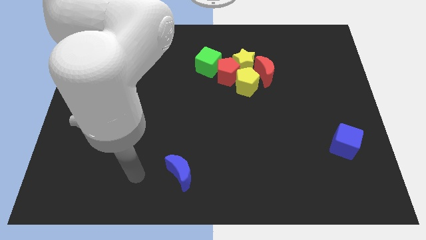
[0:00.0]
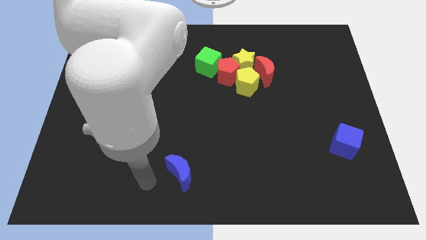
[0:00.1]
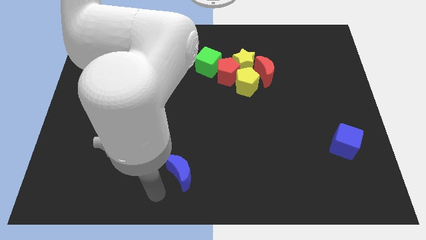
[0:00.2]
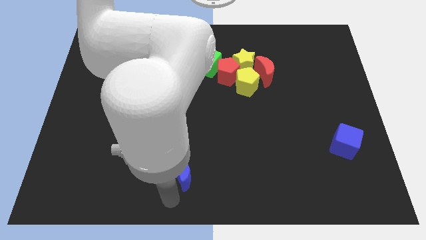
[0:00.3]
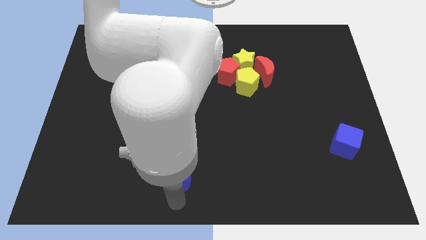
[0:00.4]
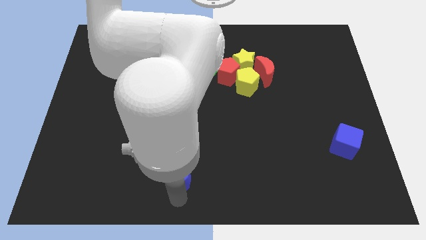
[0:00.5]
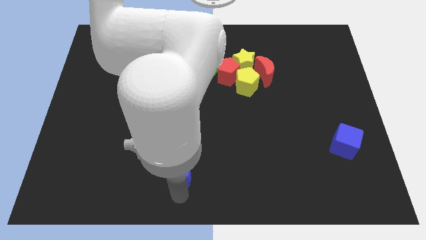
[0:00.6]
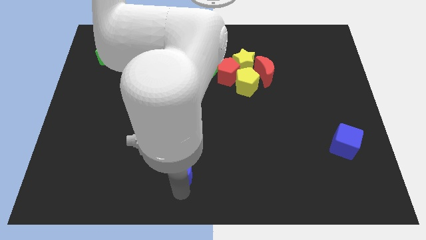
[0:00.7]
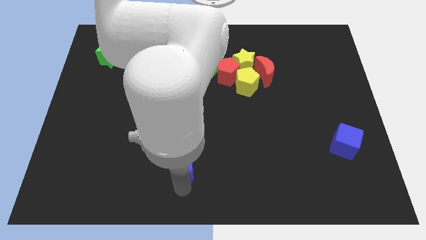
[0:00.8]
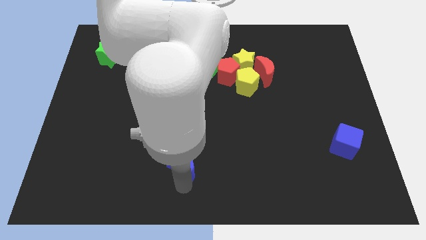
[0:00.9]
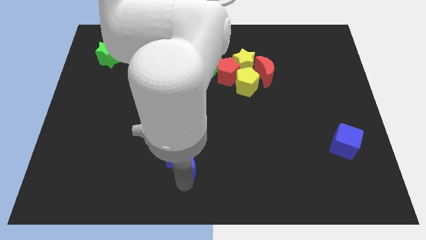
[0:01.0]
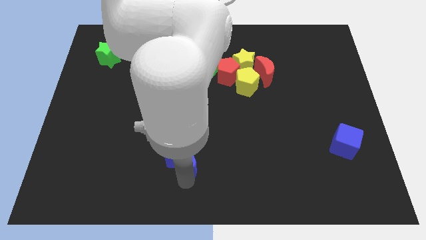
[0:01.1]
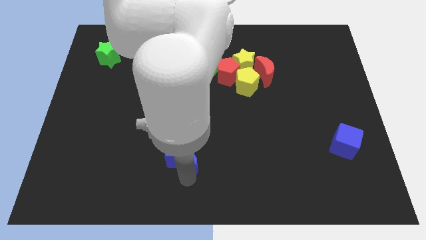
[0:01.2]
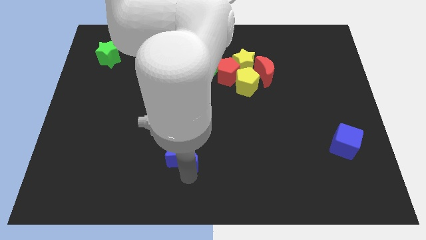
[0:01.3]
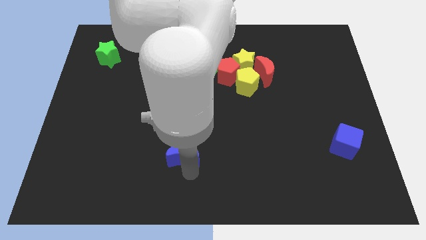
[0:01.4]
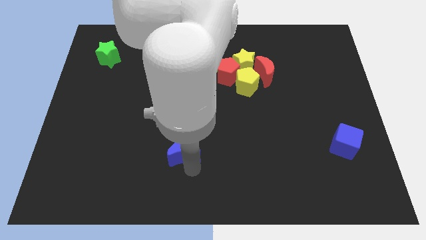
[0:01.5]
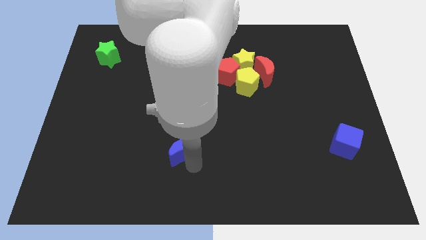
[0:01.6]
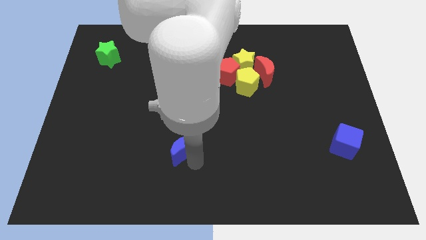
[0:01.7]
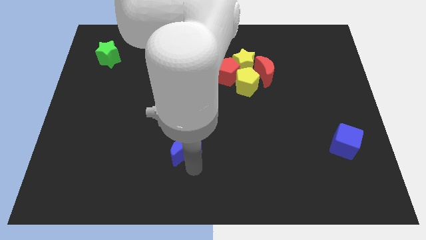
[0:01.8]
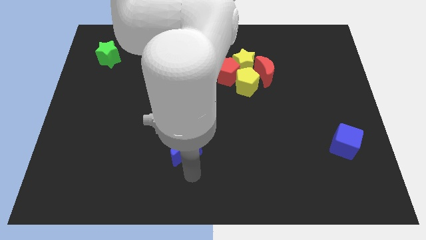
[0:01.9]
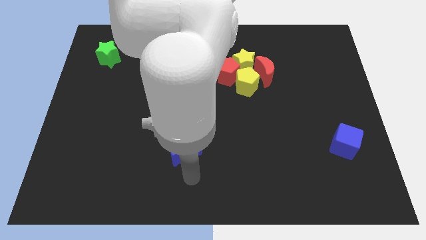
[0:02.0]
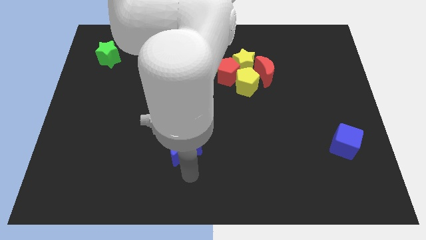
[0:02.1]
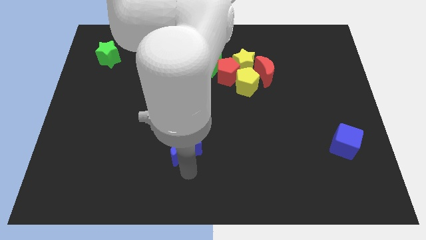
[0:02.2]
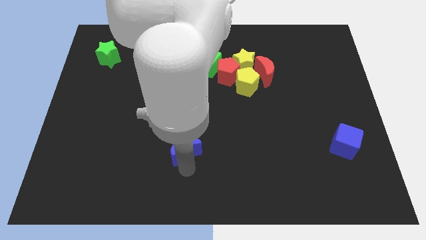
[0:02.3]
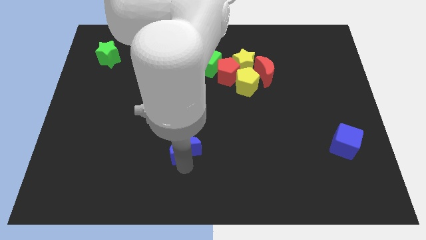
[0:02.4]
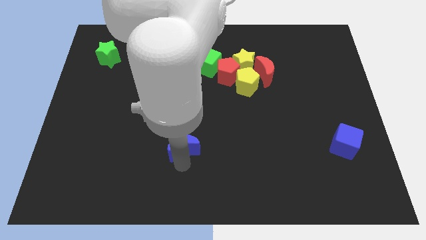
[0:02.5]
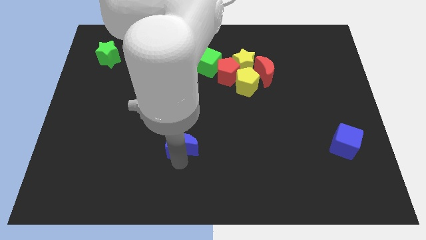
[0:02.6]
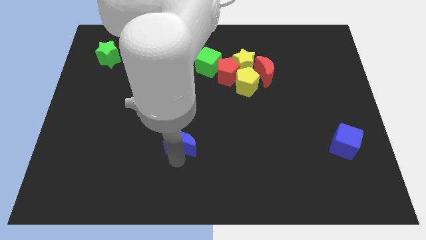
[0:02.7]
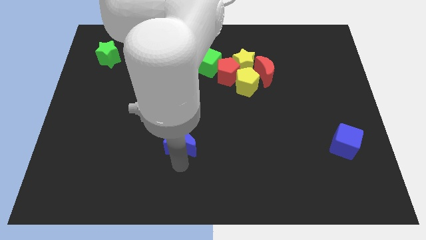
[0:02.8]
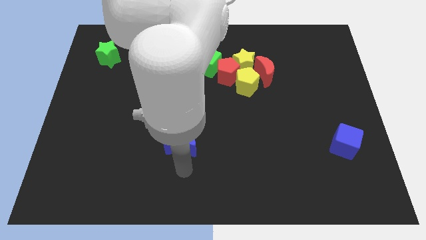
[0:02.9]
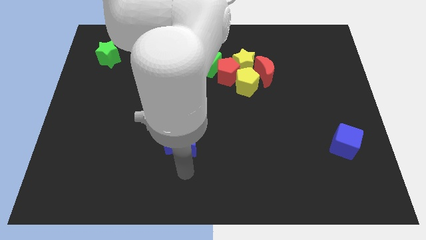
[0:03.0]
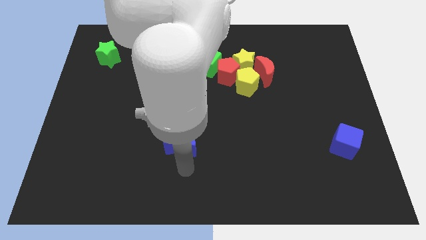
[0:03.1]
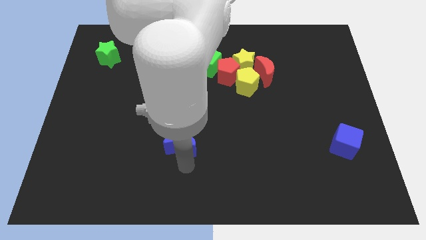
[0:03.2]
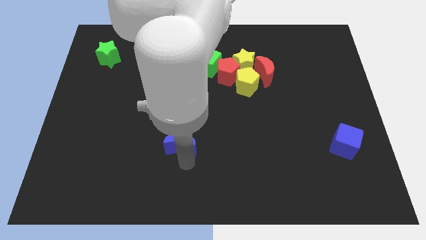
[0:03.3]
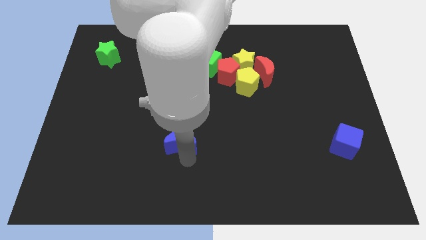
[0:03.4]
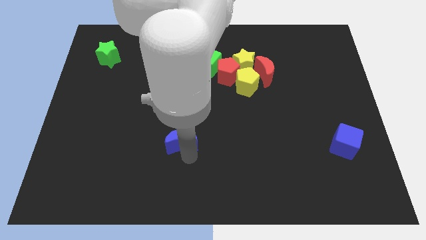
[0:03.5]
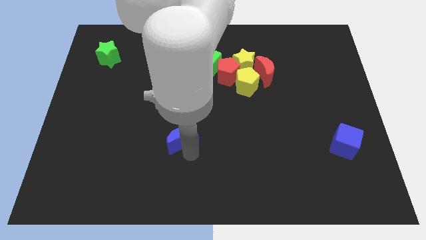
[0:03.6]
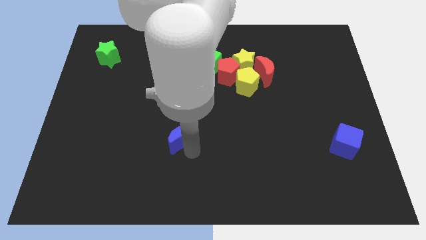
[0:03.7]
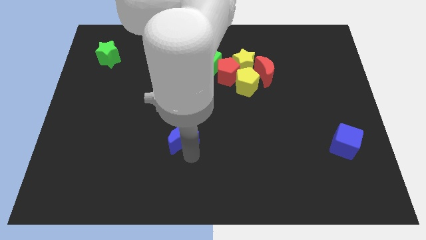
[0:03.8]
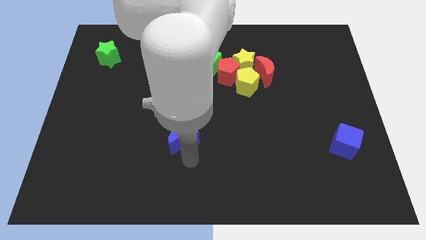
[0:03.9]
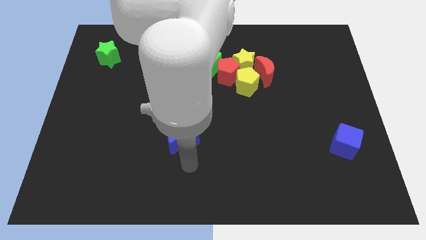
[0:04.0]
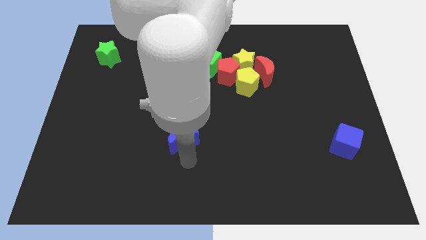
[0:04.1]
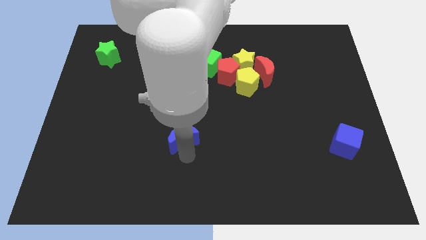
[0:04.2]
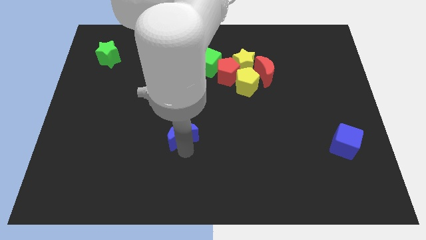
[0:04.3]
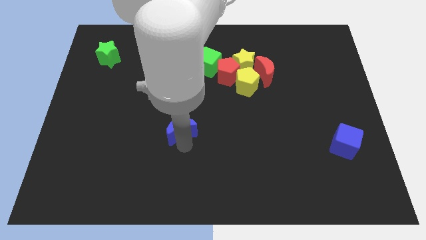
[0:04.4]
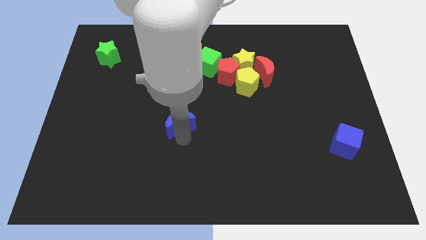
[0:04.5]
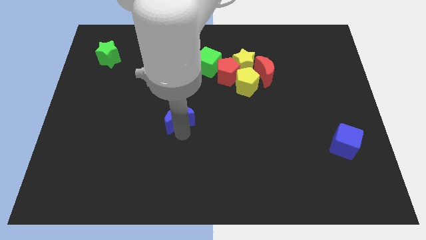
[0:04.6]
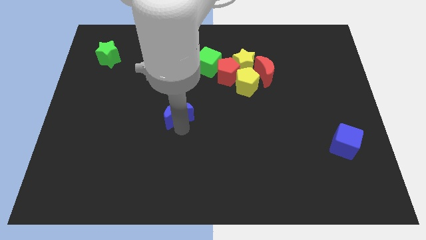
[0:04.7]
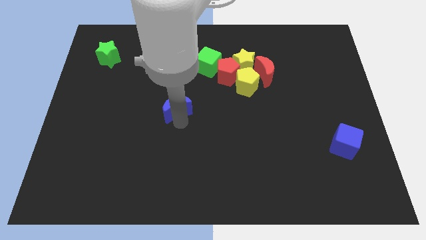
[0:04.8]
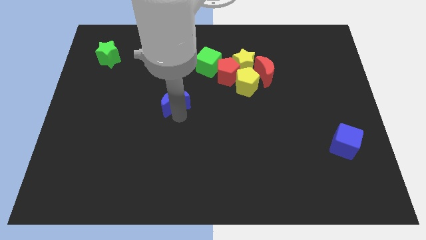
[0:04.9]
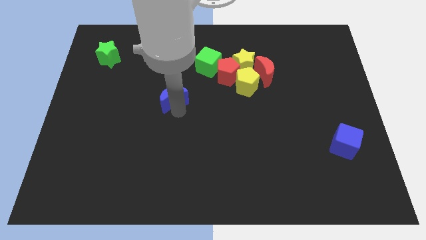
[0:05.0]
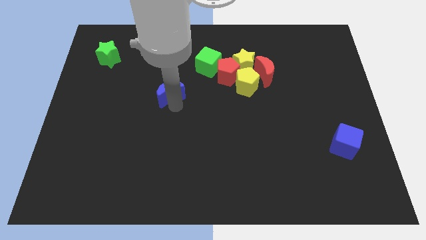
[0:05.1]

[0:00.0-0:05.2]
push the blue moon up

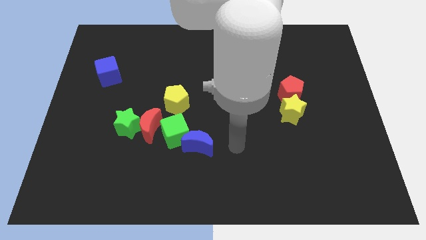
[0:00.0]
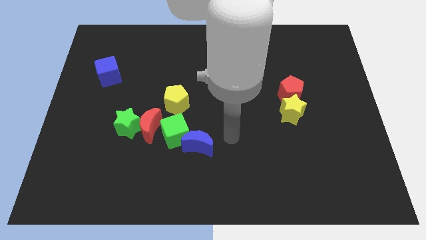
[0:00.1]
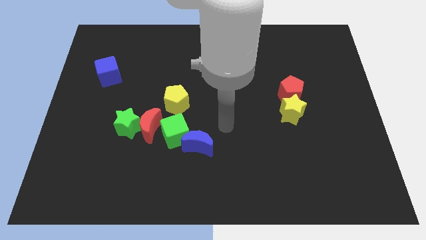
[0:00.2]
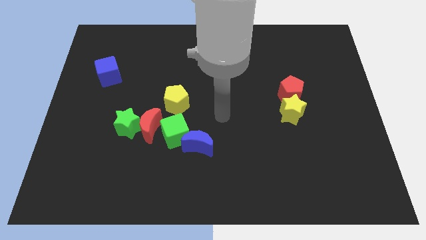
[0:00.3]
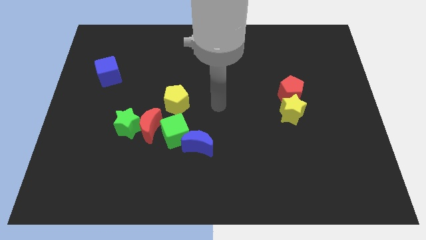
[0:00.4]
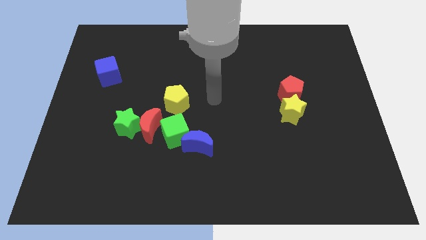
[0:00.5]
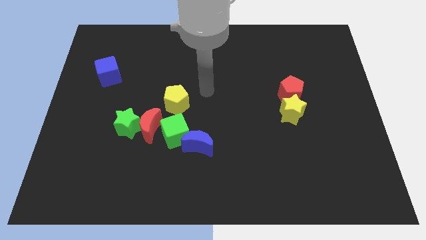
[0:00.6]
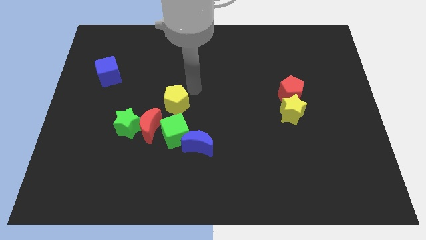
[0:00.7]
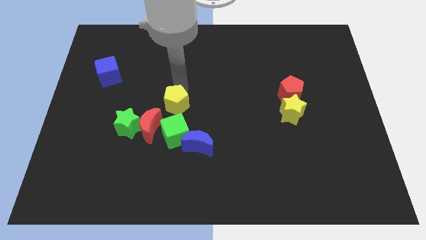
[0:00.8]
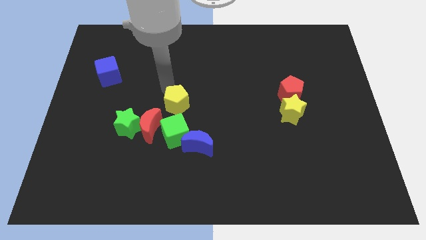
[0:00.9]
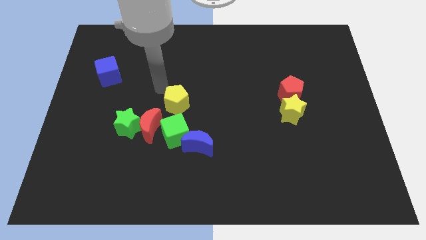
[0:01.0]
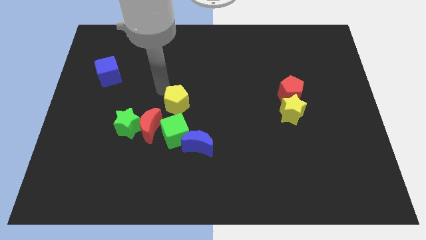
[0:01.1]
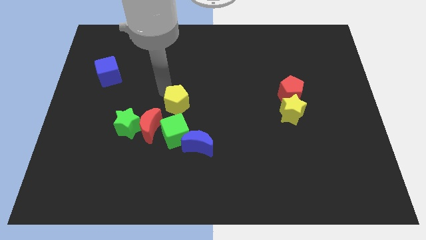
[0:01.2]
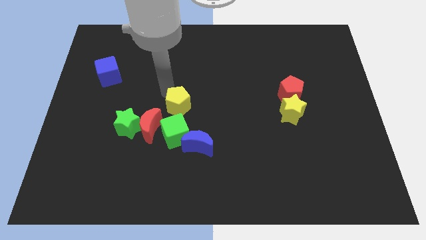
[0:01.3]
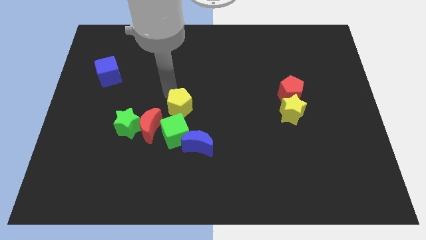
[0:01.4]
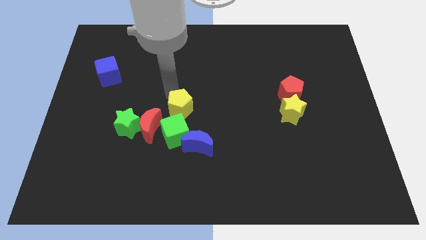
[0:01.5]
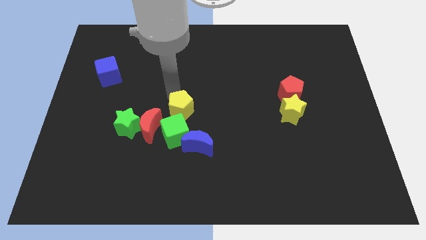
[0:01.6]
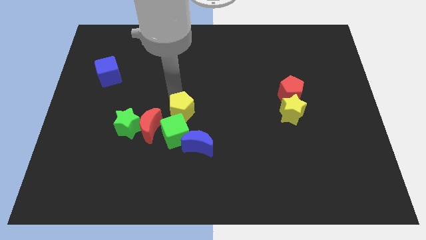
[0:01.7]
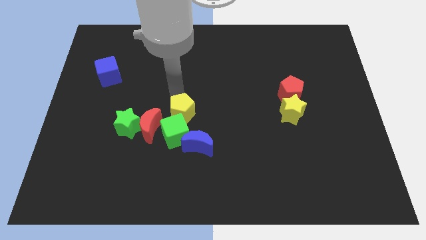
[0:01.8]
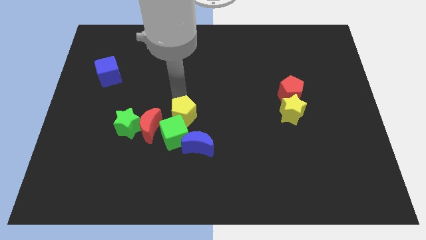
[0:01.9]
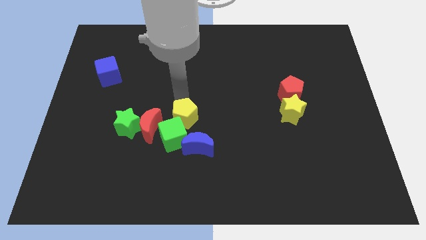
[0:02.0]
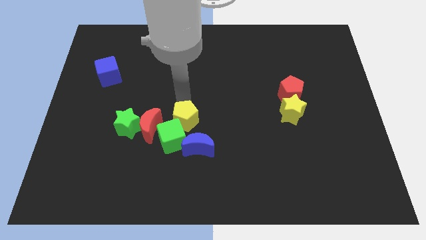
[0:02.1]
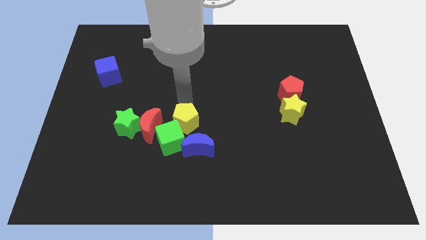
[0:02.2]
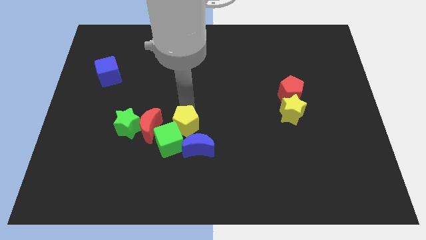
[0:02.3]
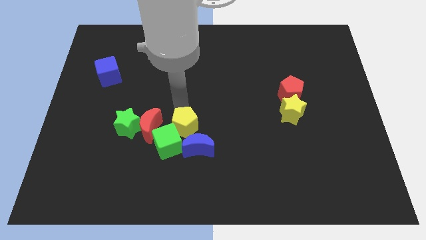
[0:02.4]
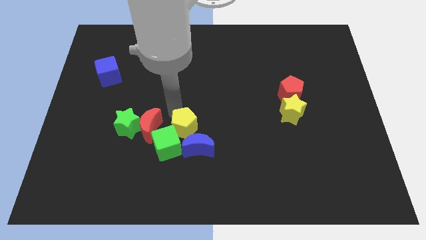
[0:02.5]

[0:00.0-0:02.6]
push the yellow pentagon somewhat downwards

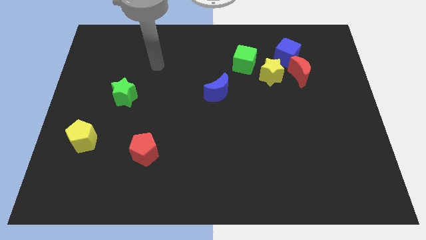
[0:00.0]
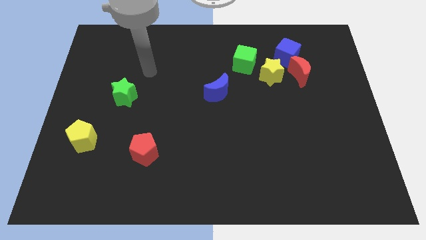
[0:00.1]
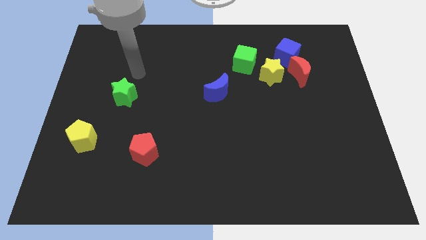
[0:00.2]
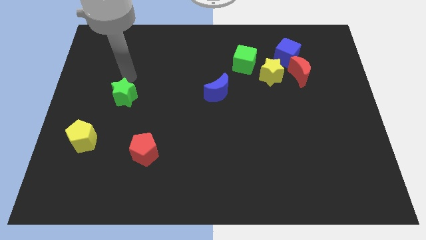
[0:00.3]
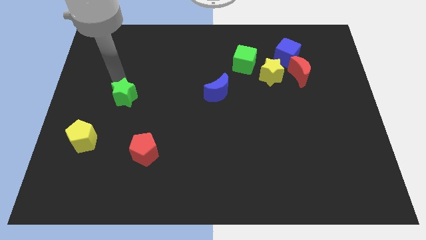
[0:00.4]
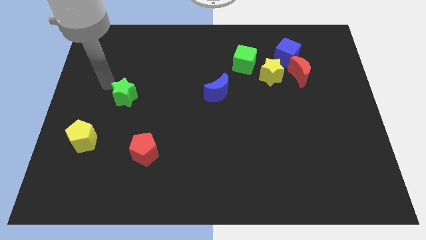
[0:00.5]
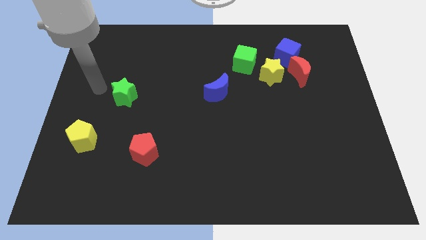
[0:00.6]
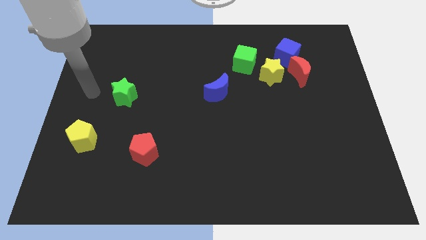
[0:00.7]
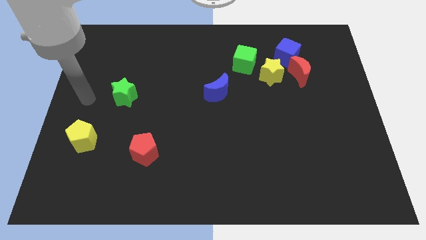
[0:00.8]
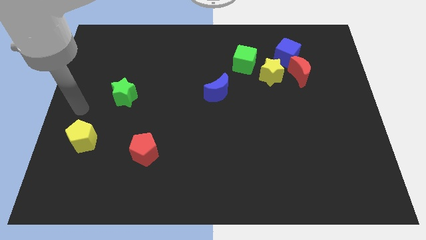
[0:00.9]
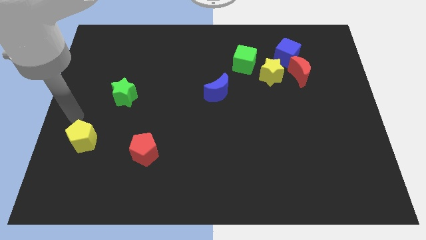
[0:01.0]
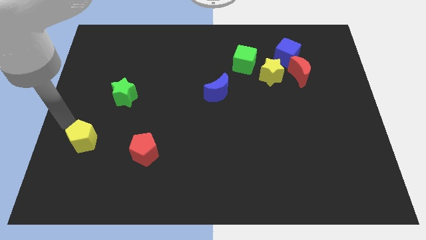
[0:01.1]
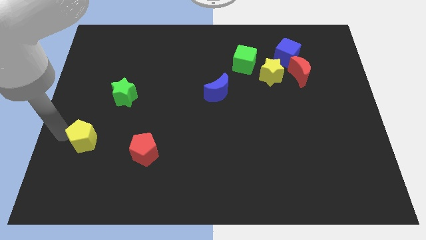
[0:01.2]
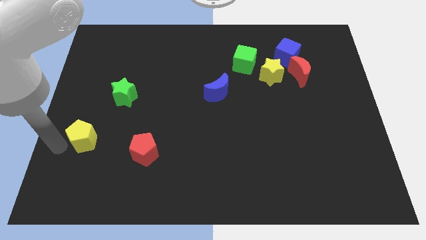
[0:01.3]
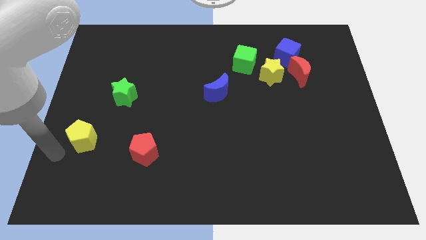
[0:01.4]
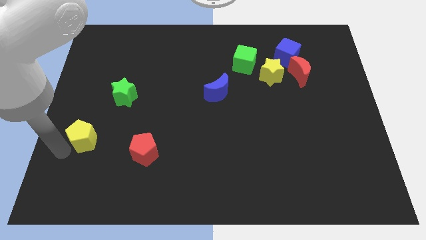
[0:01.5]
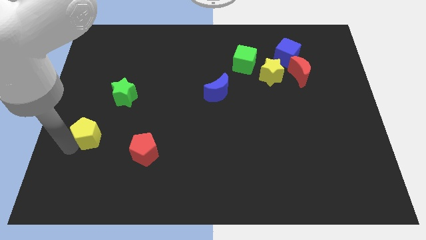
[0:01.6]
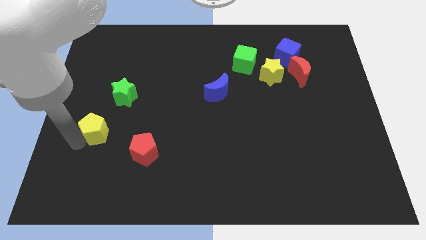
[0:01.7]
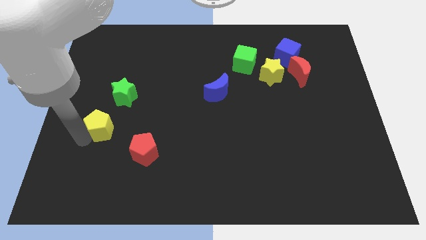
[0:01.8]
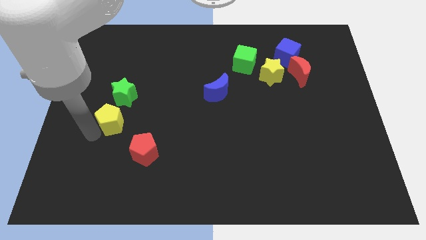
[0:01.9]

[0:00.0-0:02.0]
move the yellow pentagon a little bit upwards and then to the right
